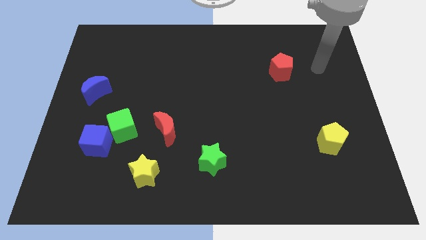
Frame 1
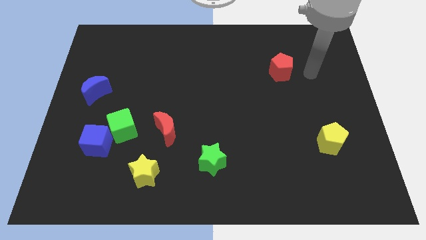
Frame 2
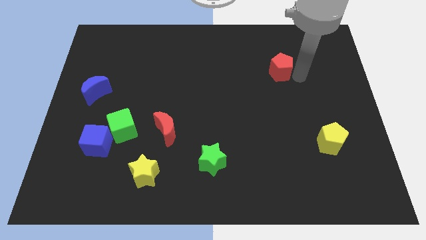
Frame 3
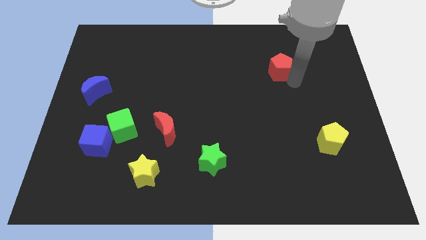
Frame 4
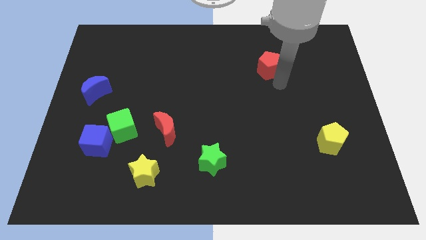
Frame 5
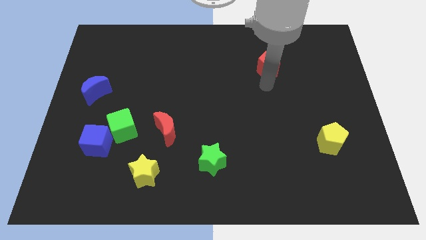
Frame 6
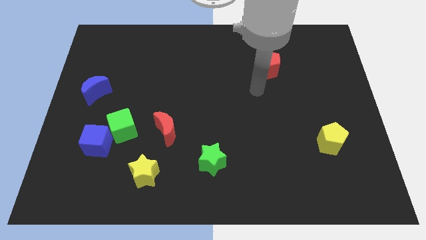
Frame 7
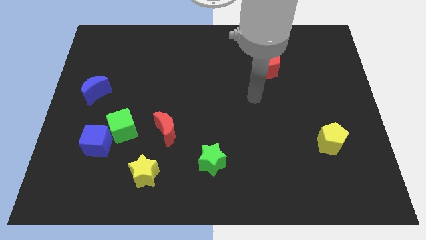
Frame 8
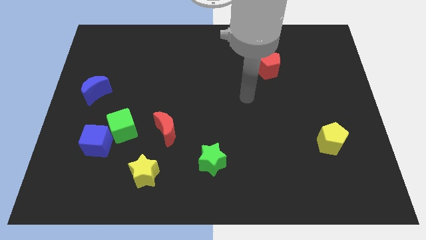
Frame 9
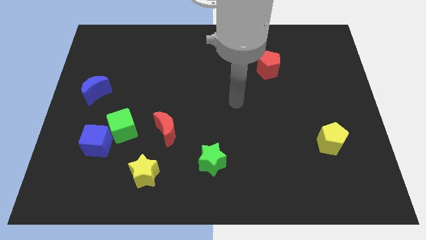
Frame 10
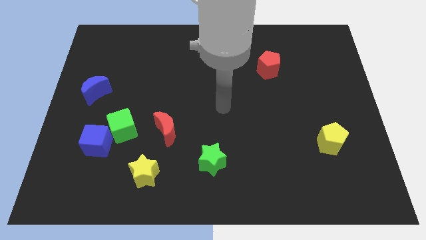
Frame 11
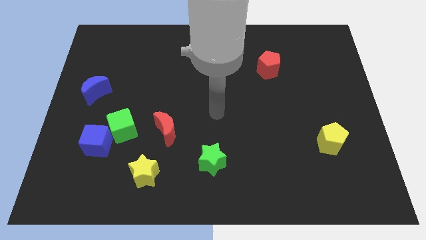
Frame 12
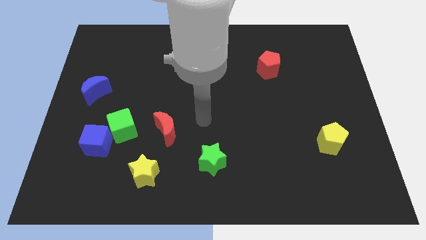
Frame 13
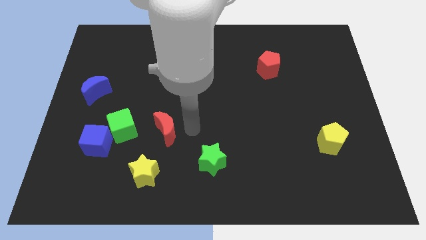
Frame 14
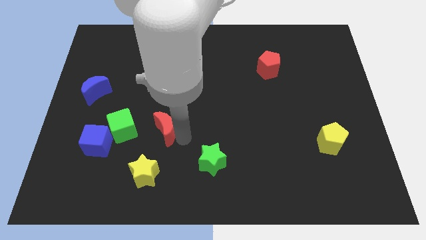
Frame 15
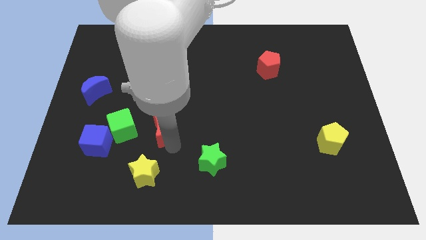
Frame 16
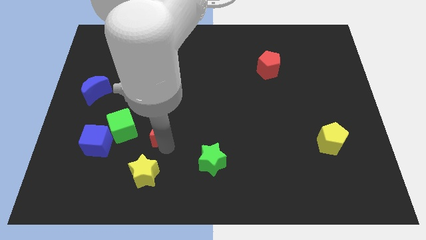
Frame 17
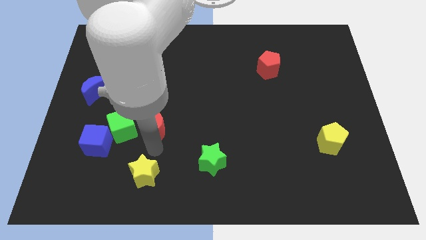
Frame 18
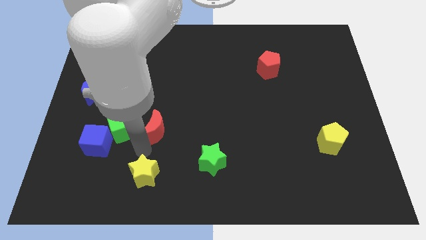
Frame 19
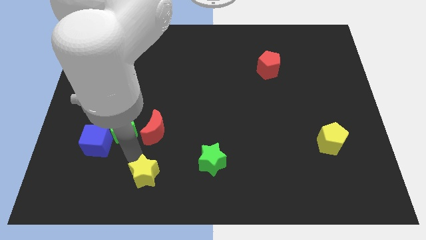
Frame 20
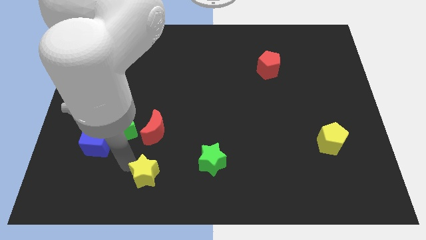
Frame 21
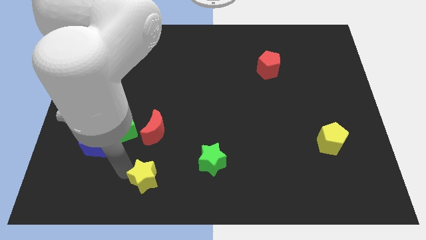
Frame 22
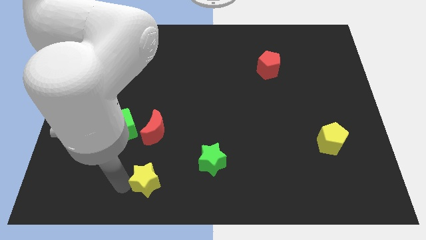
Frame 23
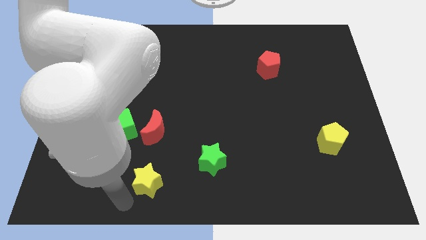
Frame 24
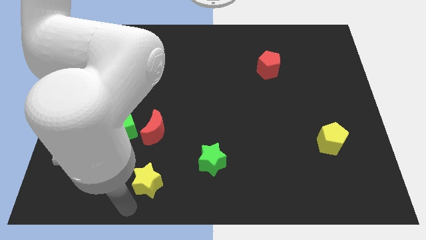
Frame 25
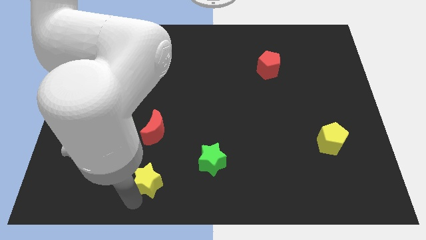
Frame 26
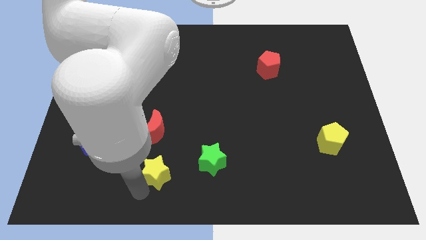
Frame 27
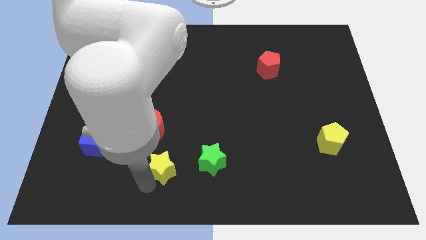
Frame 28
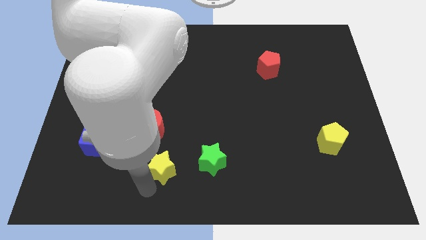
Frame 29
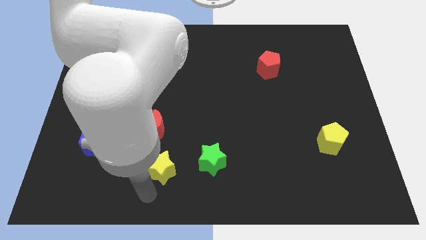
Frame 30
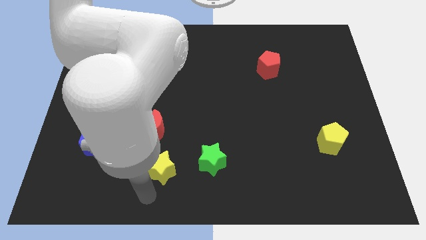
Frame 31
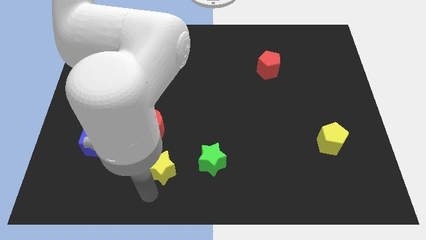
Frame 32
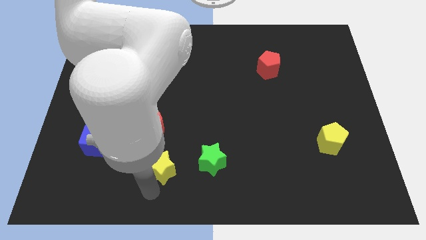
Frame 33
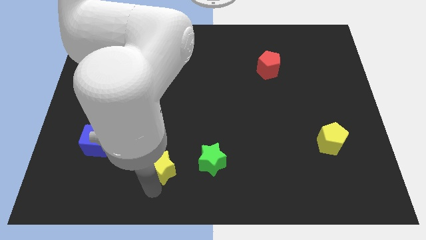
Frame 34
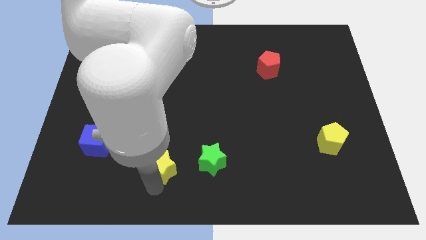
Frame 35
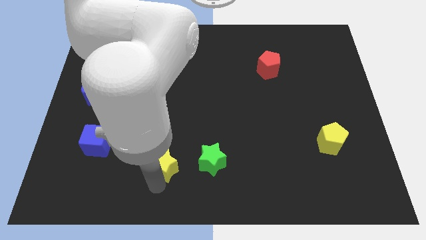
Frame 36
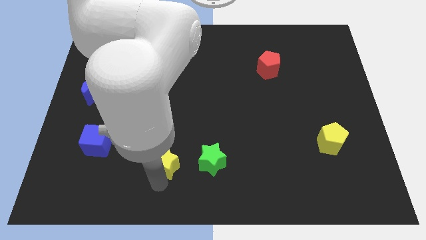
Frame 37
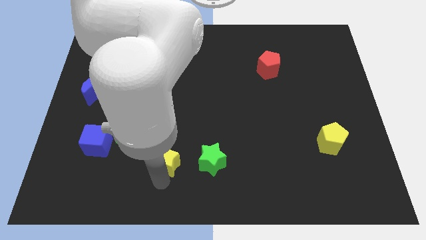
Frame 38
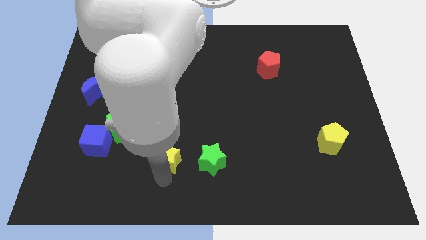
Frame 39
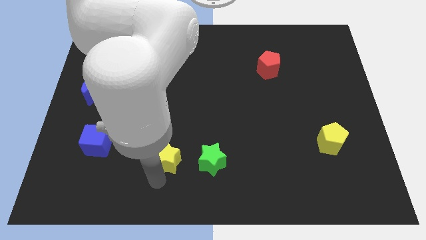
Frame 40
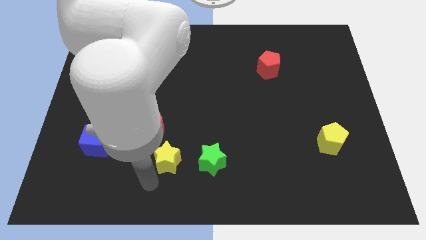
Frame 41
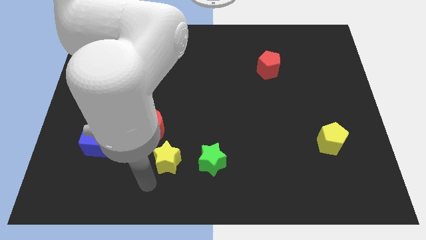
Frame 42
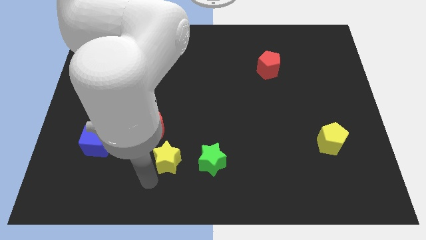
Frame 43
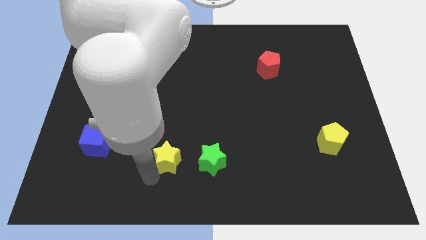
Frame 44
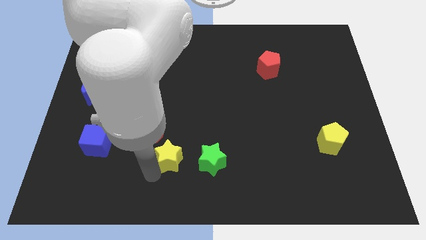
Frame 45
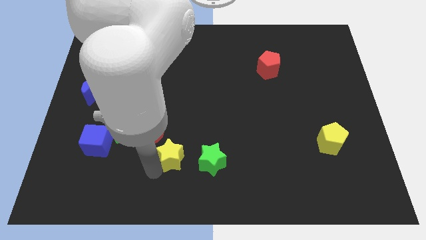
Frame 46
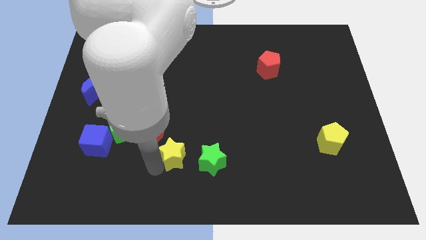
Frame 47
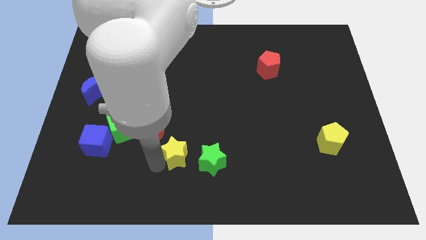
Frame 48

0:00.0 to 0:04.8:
push the yellow star upwards and to the right diagonally slightly

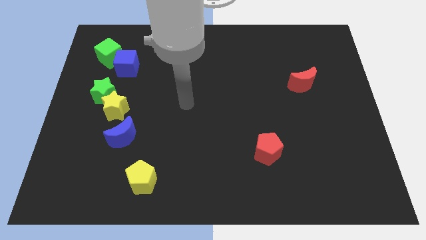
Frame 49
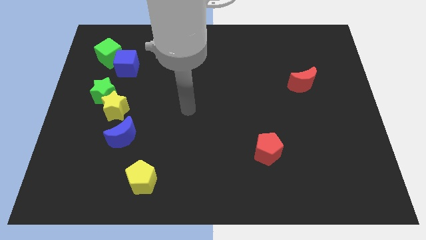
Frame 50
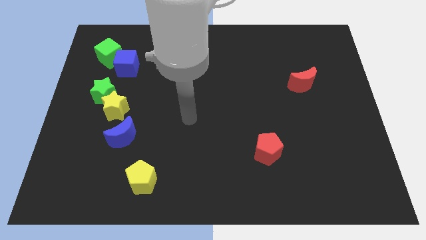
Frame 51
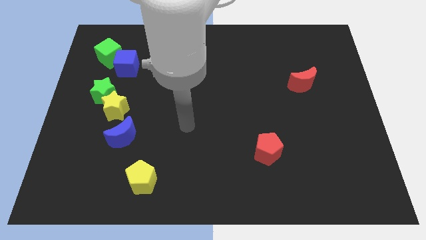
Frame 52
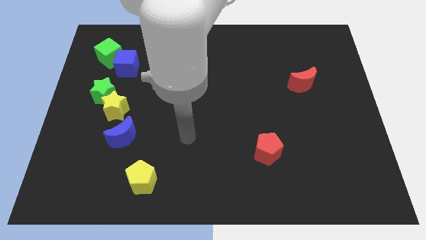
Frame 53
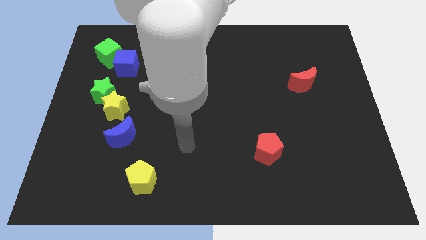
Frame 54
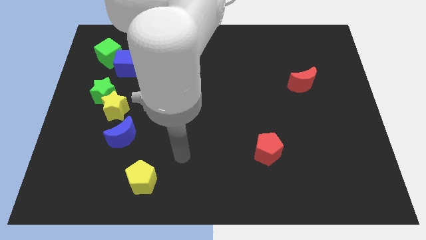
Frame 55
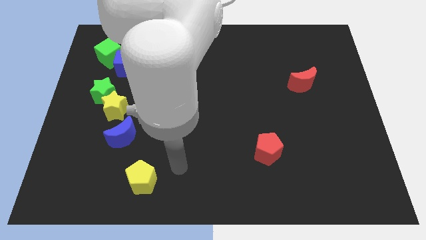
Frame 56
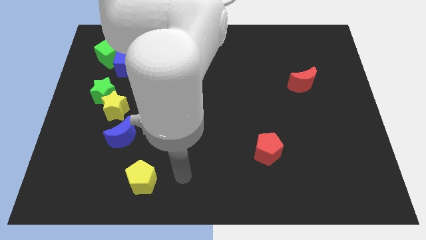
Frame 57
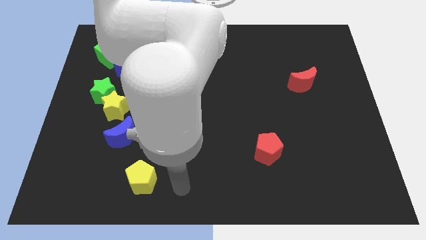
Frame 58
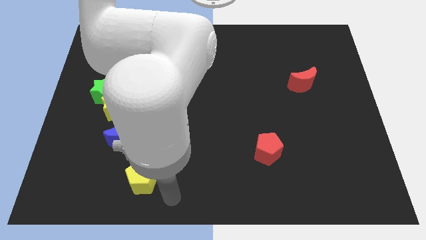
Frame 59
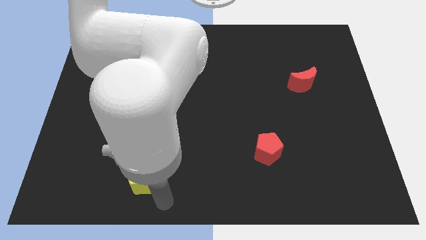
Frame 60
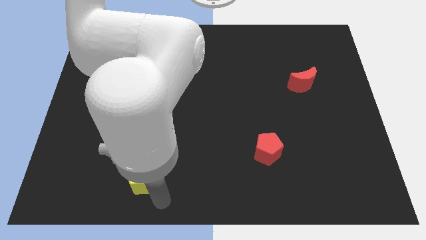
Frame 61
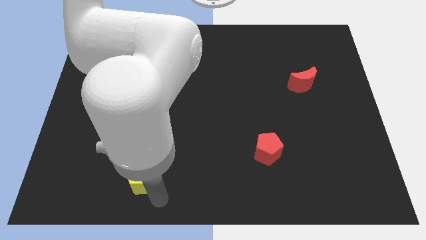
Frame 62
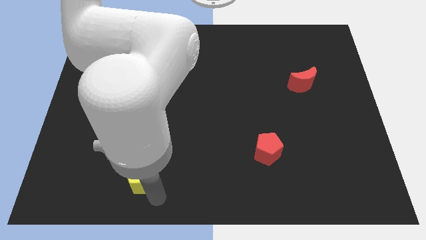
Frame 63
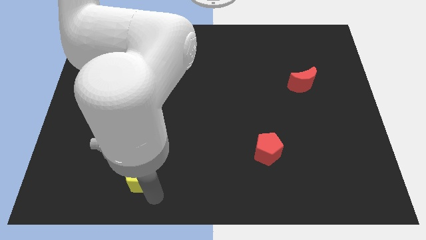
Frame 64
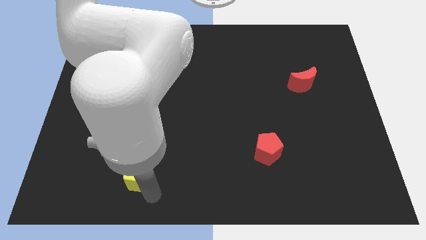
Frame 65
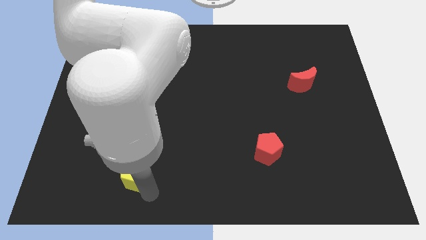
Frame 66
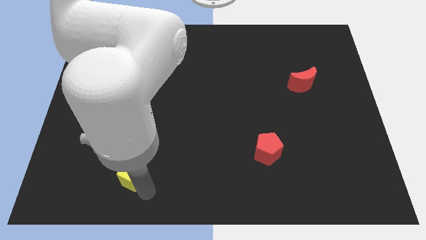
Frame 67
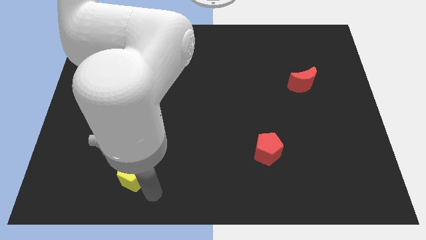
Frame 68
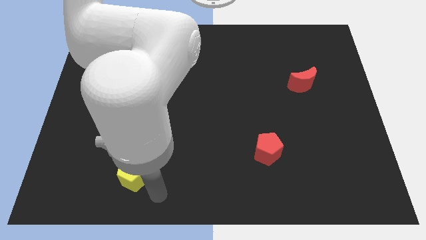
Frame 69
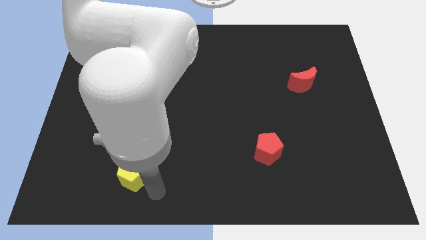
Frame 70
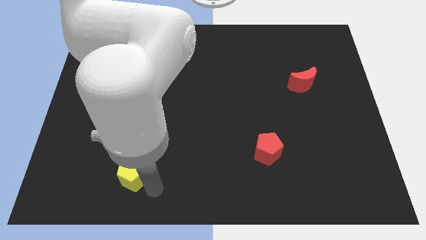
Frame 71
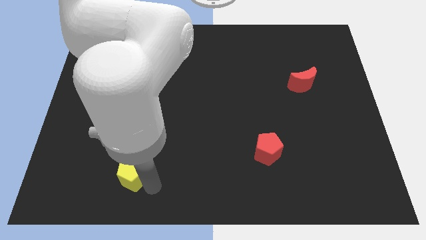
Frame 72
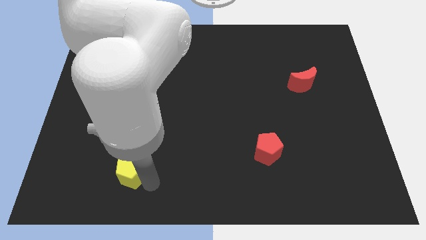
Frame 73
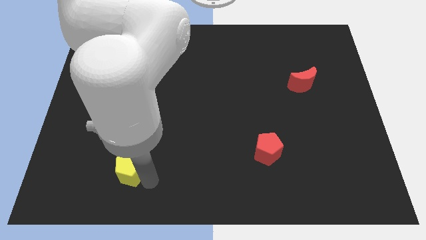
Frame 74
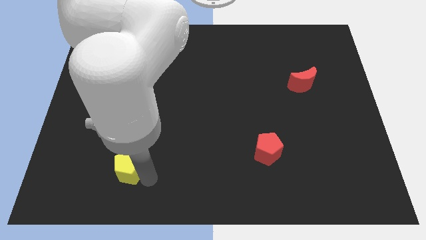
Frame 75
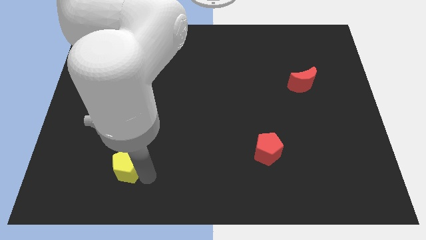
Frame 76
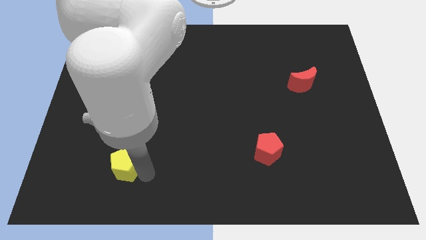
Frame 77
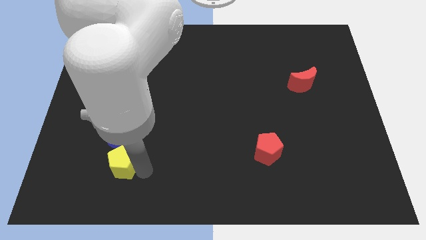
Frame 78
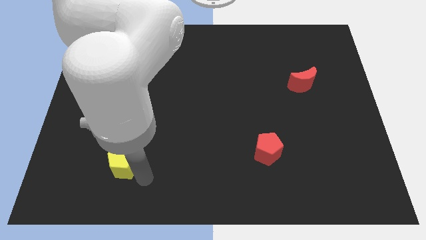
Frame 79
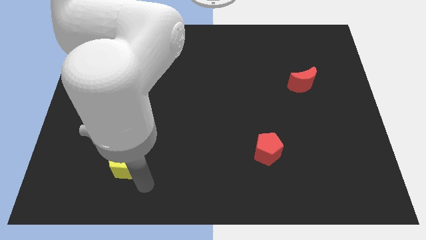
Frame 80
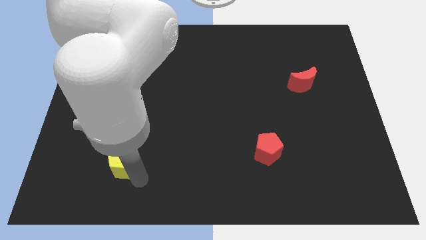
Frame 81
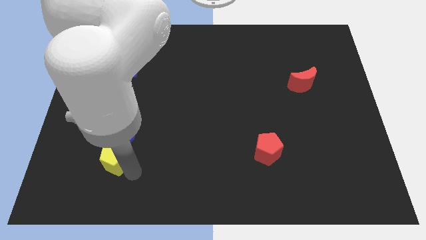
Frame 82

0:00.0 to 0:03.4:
slightly slide the yellow pentagon upwards and to the left
